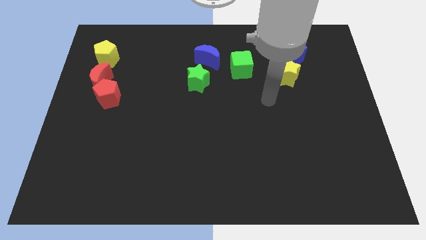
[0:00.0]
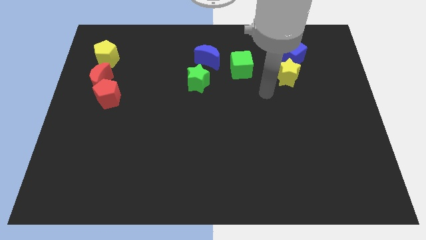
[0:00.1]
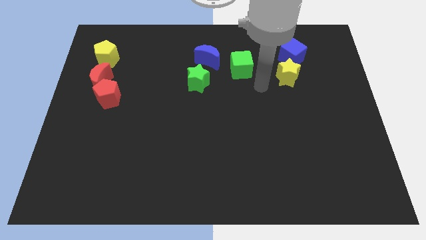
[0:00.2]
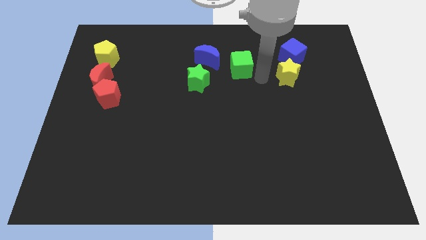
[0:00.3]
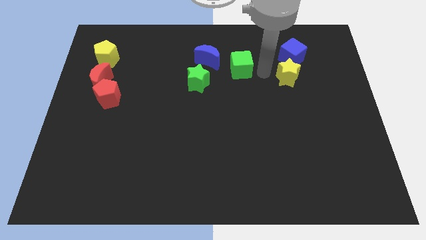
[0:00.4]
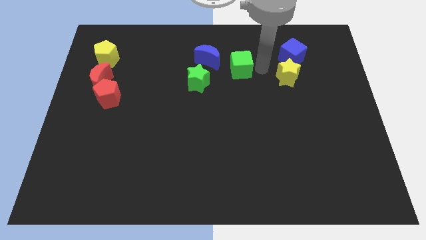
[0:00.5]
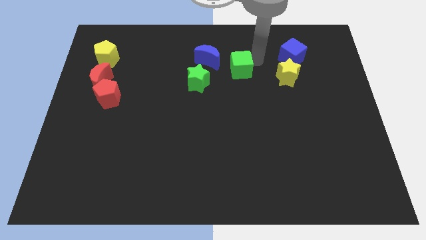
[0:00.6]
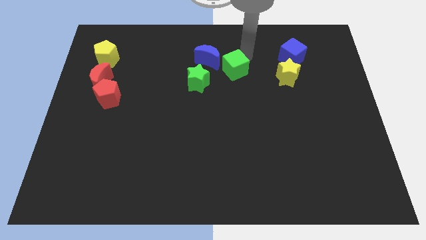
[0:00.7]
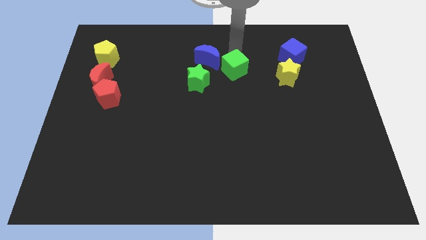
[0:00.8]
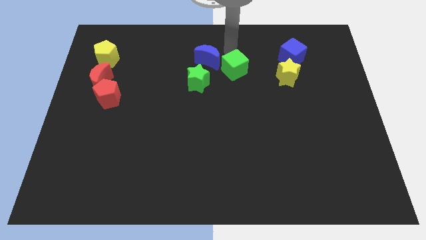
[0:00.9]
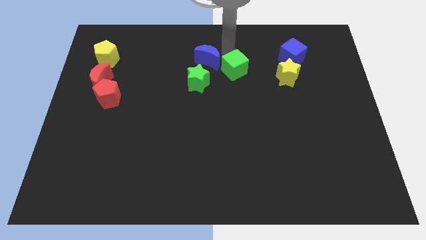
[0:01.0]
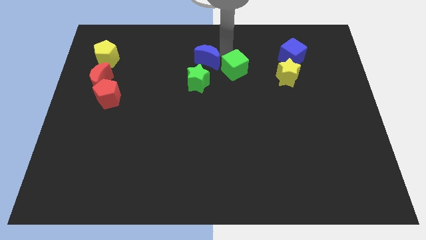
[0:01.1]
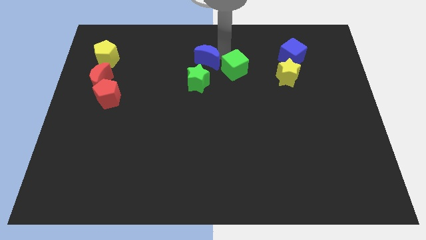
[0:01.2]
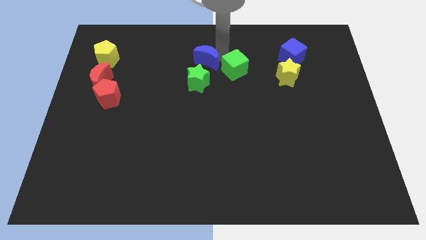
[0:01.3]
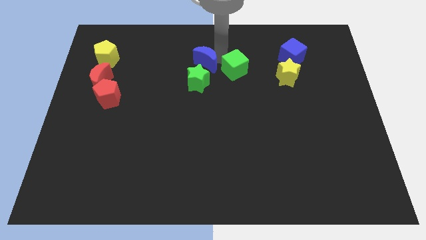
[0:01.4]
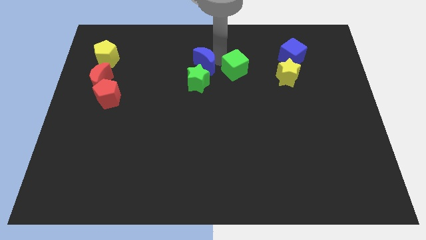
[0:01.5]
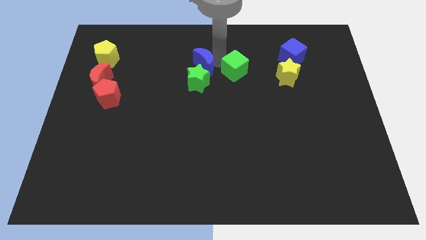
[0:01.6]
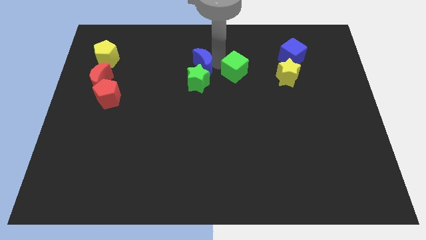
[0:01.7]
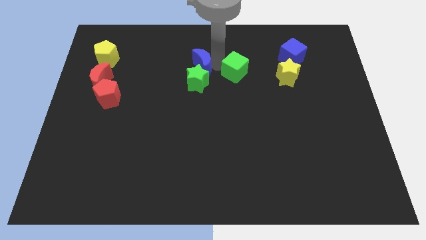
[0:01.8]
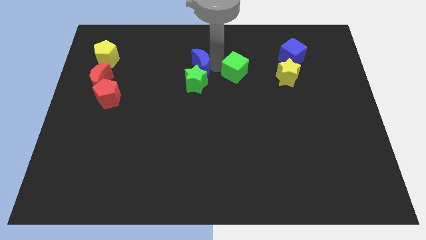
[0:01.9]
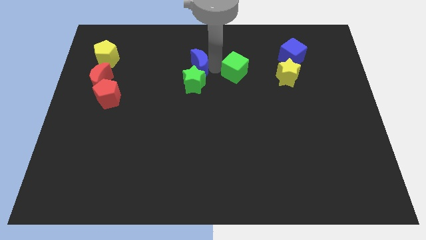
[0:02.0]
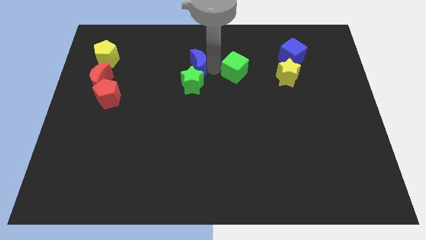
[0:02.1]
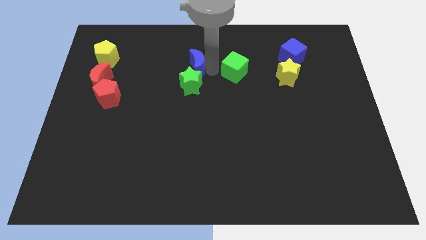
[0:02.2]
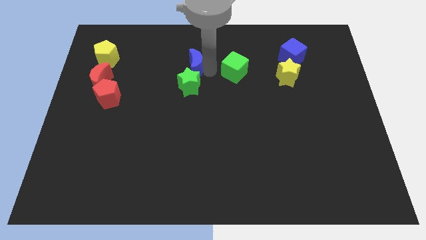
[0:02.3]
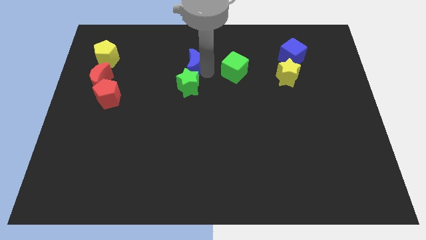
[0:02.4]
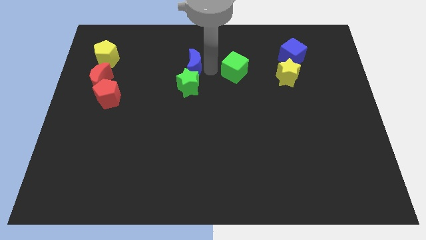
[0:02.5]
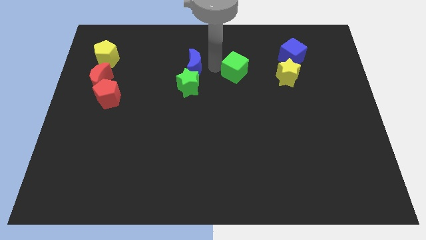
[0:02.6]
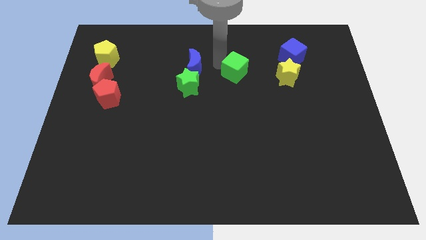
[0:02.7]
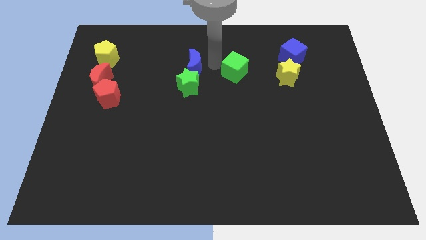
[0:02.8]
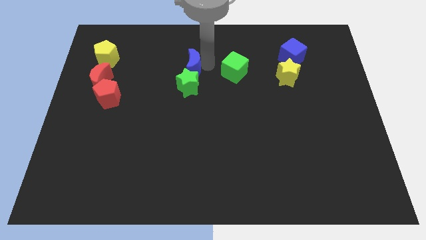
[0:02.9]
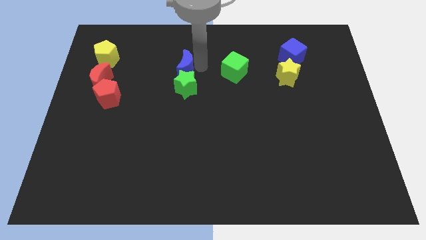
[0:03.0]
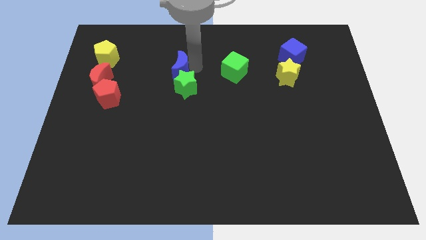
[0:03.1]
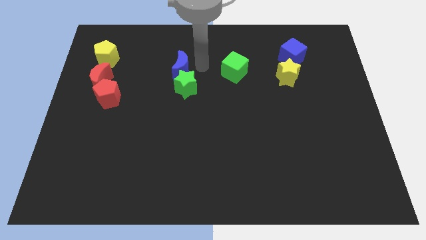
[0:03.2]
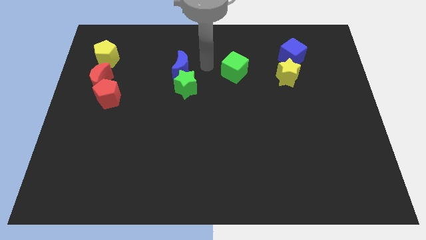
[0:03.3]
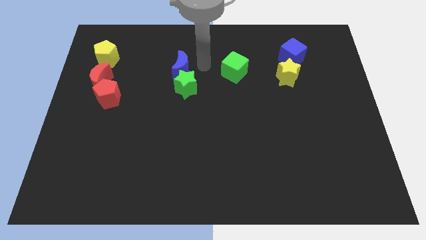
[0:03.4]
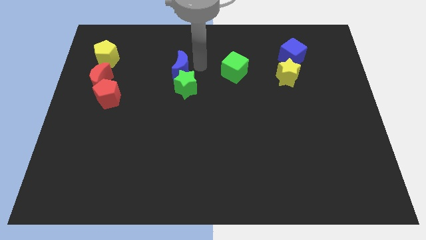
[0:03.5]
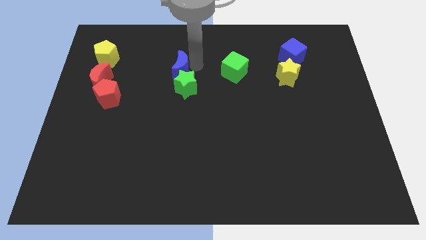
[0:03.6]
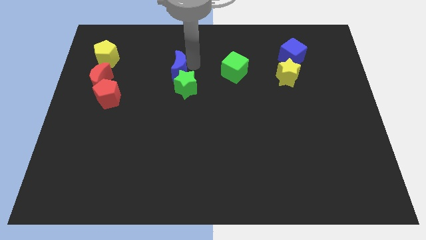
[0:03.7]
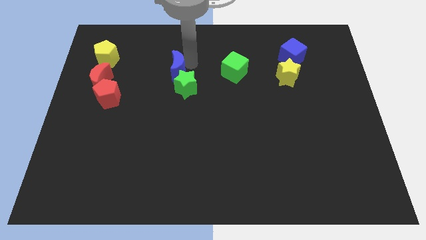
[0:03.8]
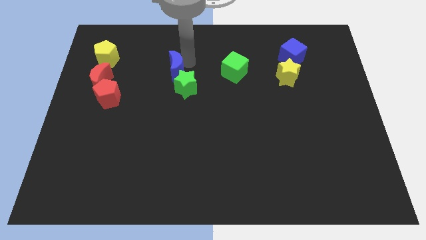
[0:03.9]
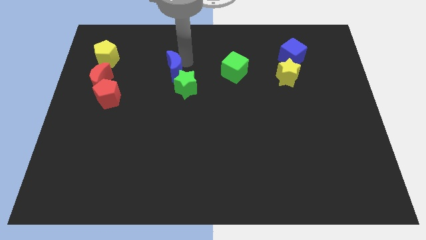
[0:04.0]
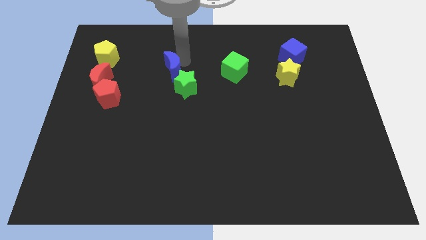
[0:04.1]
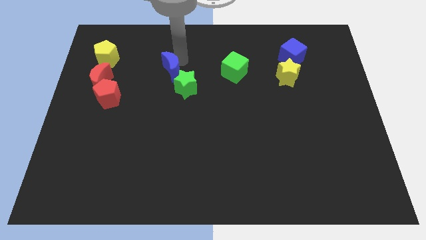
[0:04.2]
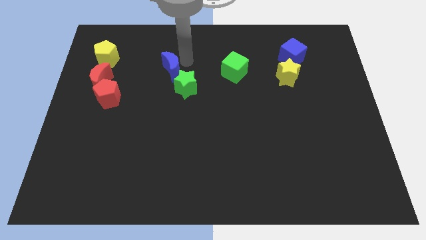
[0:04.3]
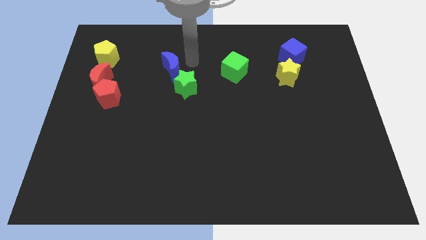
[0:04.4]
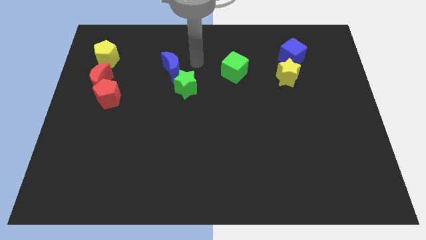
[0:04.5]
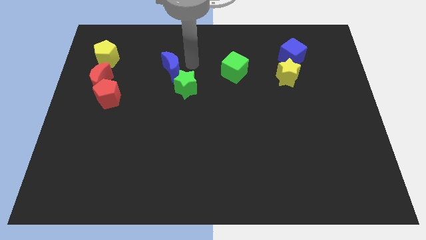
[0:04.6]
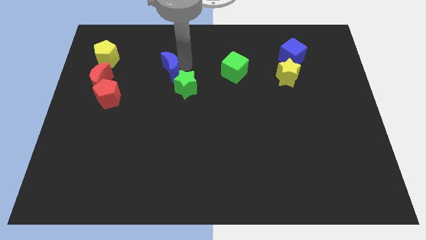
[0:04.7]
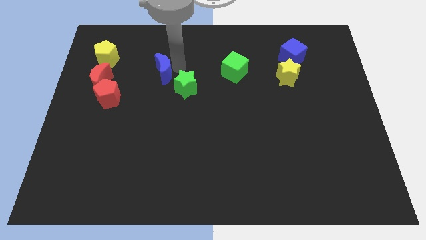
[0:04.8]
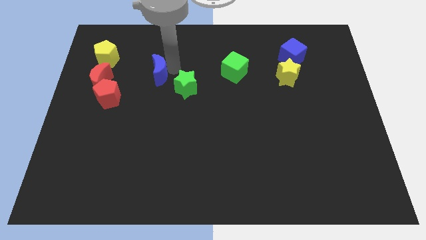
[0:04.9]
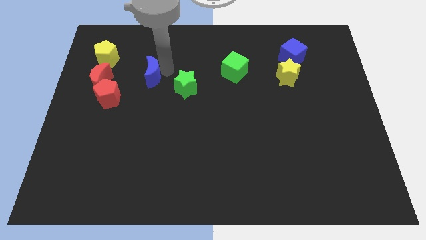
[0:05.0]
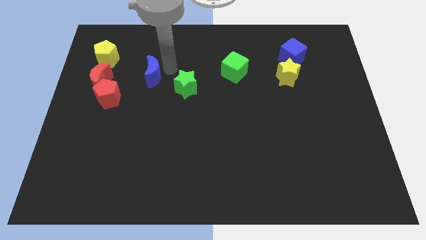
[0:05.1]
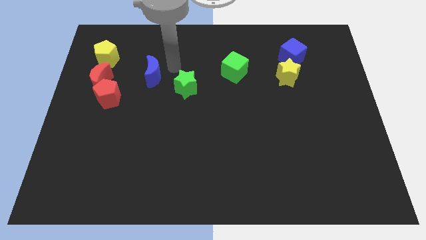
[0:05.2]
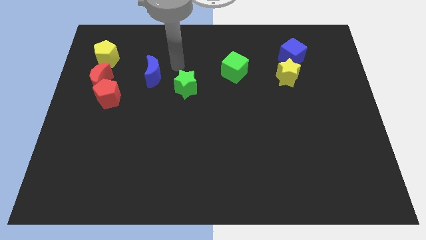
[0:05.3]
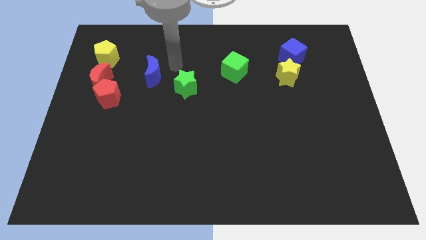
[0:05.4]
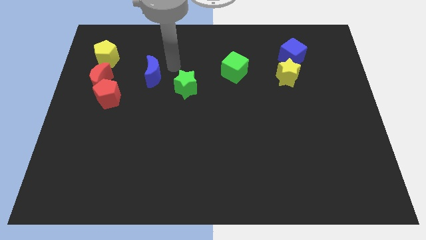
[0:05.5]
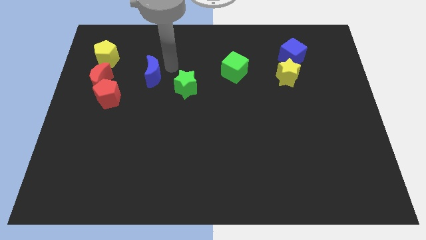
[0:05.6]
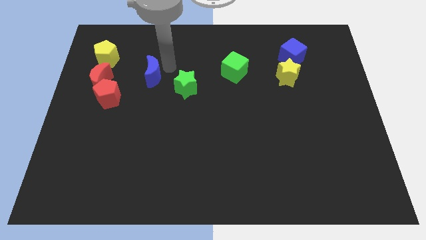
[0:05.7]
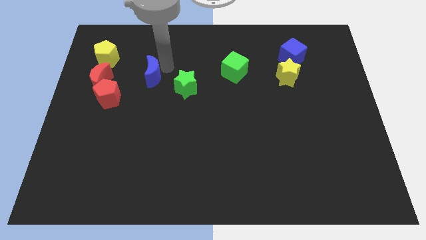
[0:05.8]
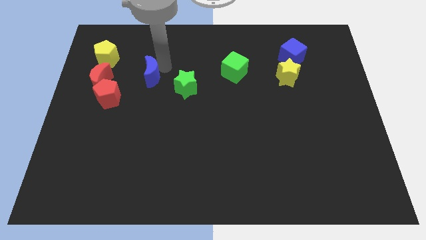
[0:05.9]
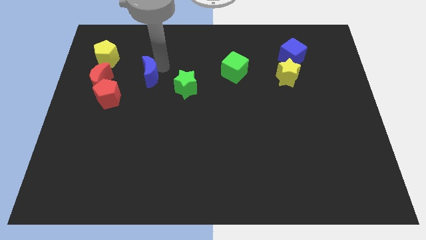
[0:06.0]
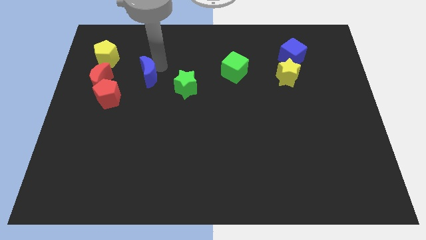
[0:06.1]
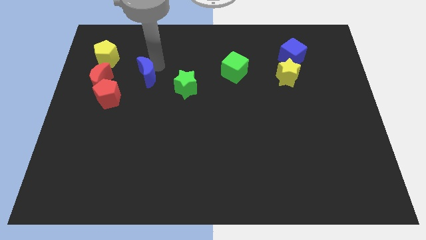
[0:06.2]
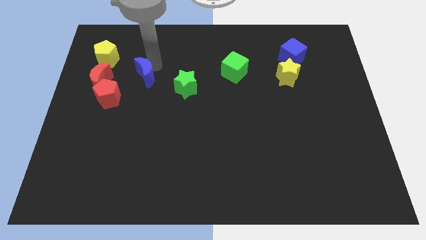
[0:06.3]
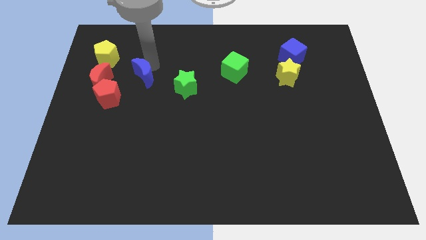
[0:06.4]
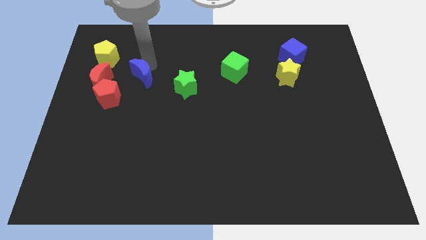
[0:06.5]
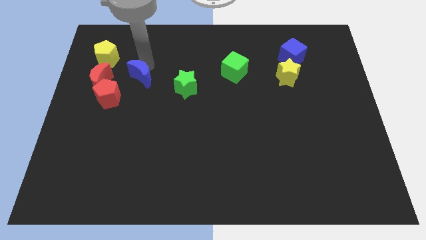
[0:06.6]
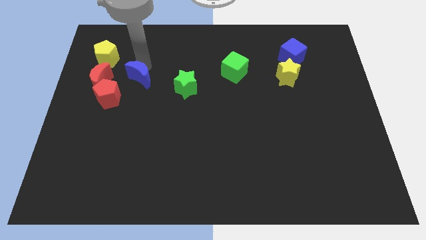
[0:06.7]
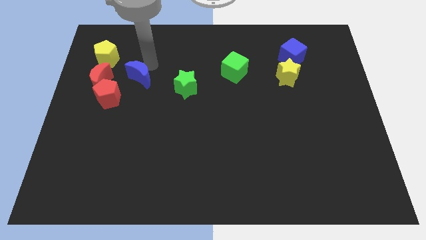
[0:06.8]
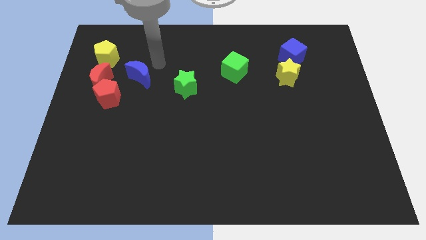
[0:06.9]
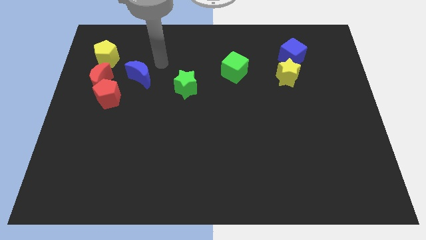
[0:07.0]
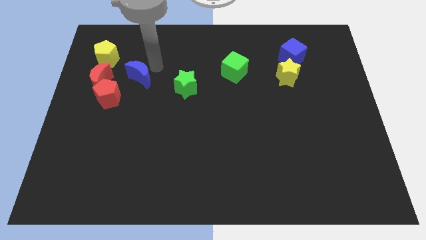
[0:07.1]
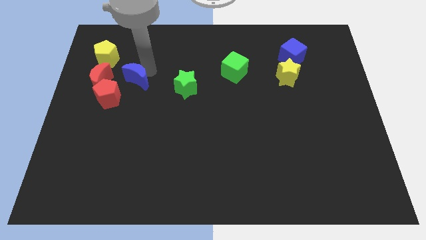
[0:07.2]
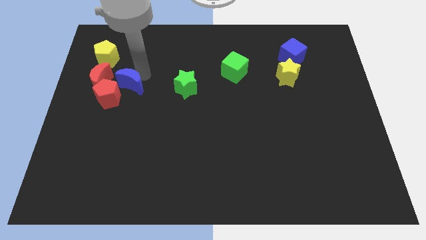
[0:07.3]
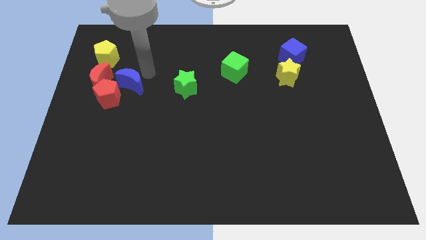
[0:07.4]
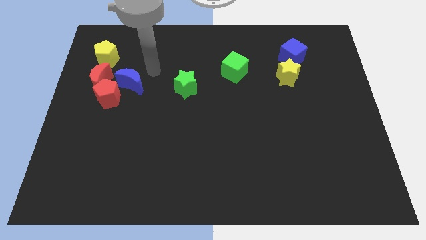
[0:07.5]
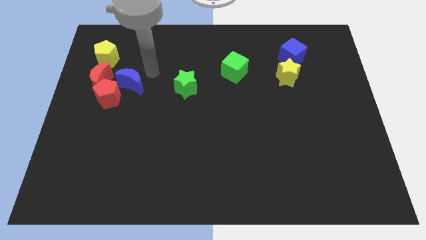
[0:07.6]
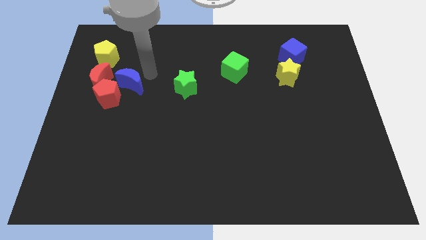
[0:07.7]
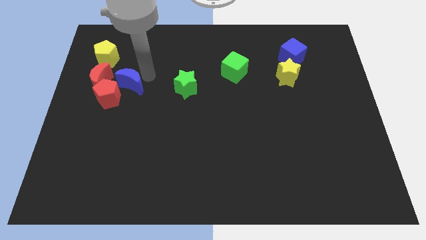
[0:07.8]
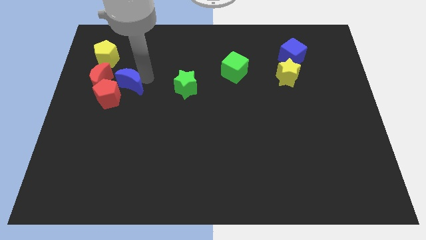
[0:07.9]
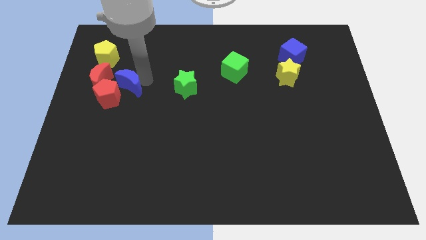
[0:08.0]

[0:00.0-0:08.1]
slide the blue moon close to the red pentagon
